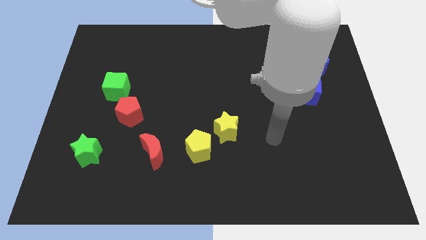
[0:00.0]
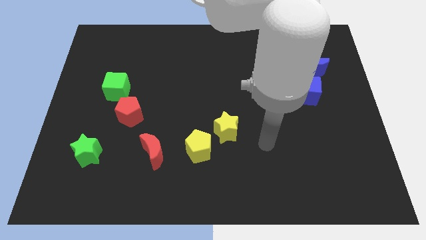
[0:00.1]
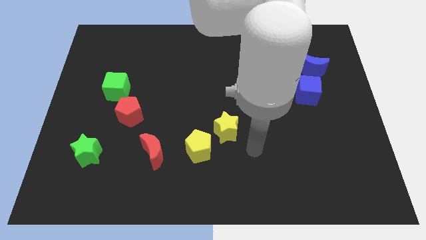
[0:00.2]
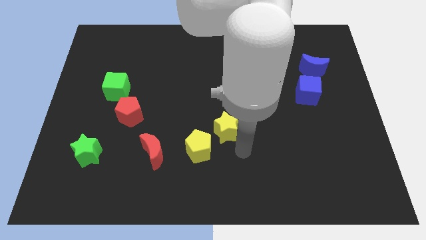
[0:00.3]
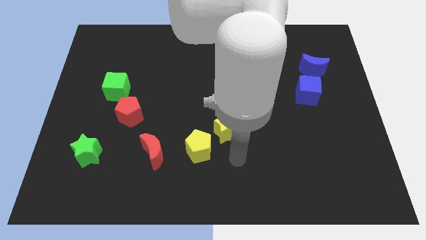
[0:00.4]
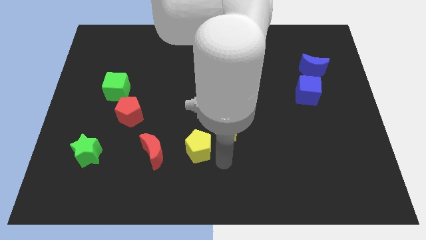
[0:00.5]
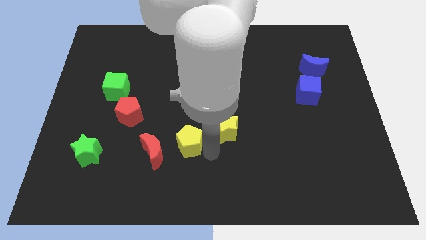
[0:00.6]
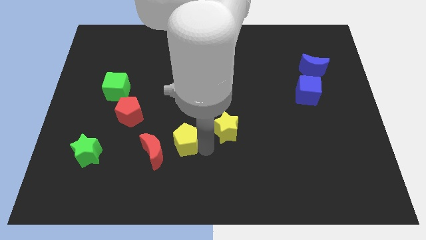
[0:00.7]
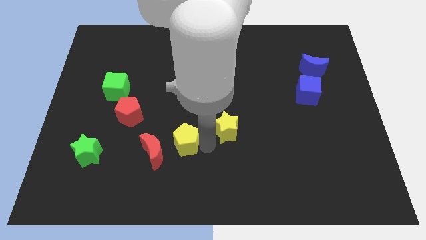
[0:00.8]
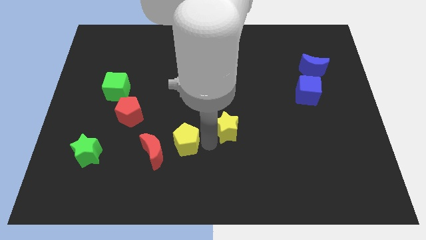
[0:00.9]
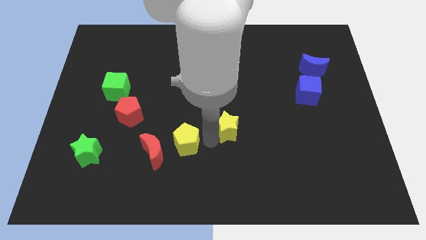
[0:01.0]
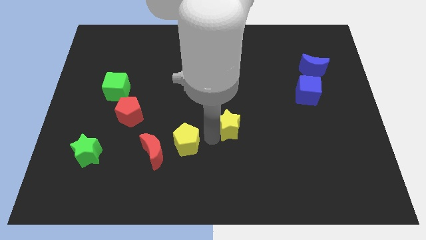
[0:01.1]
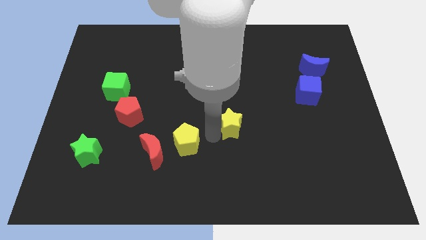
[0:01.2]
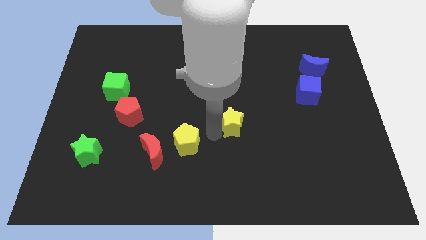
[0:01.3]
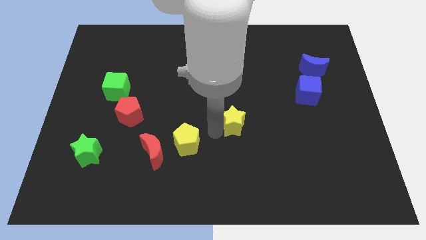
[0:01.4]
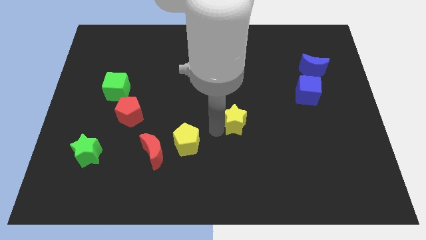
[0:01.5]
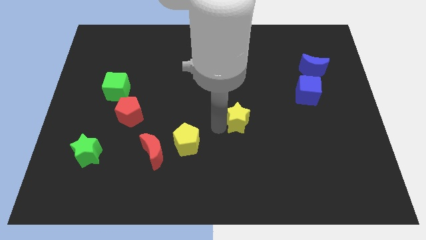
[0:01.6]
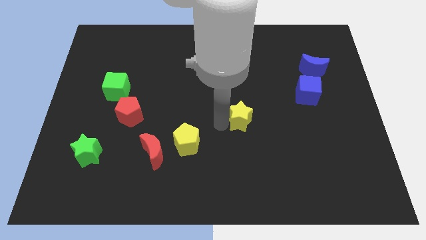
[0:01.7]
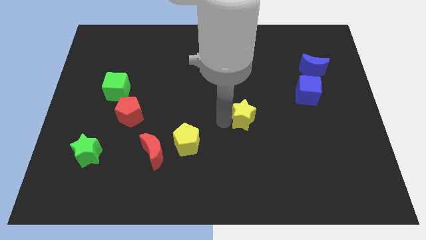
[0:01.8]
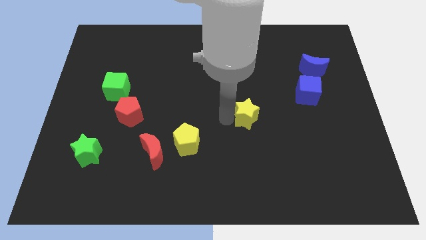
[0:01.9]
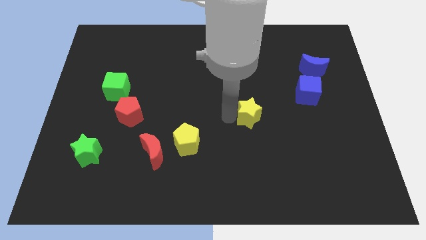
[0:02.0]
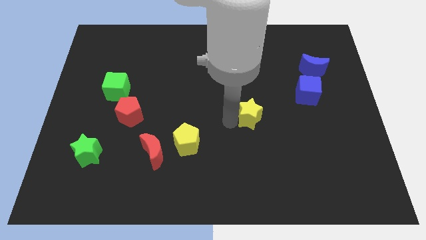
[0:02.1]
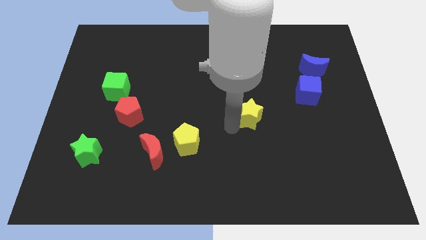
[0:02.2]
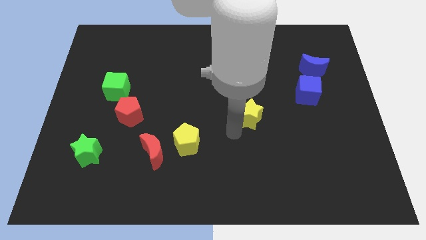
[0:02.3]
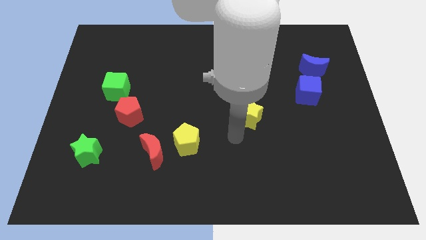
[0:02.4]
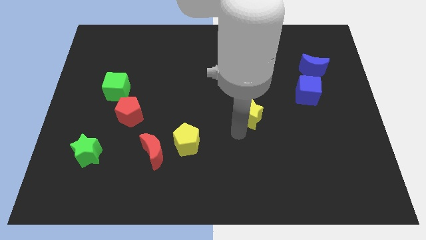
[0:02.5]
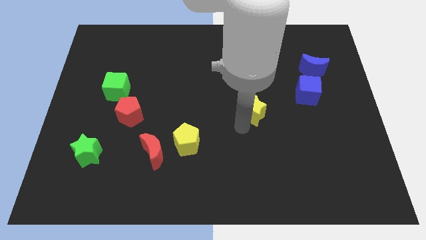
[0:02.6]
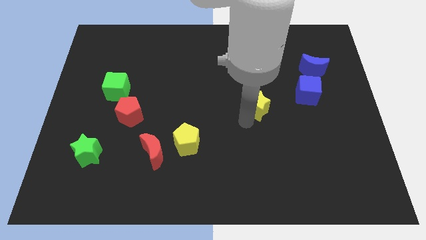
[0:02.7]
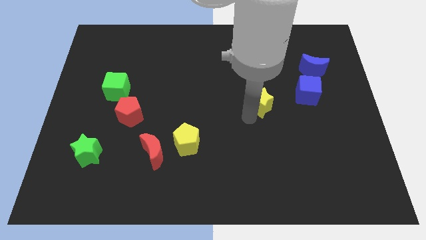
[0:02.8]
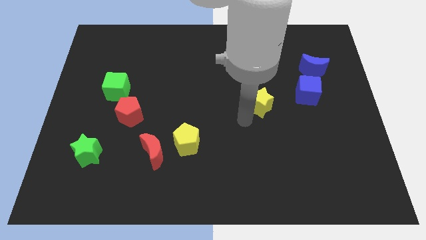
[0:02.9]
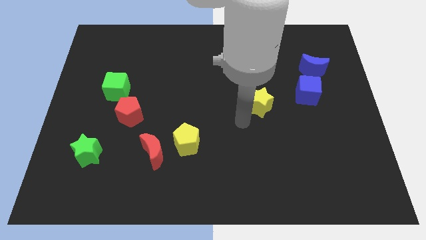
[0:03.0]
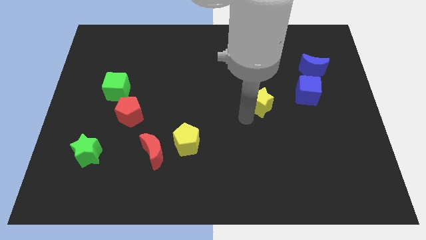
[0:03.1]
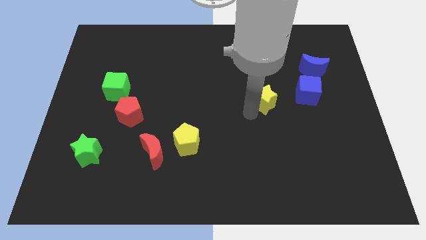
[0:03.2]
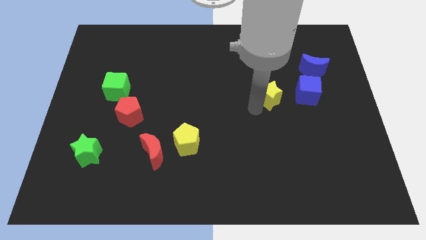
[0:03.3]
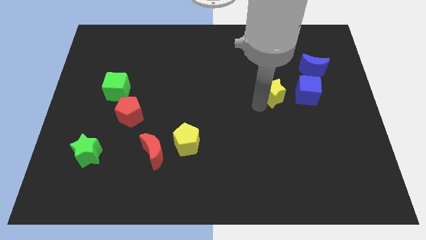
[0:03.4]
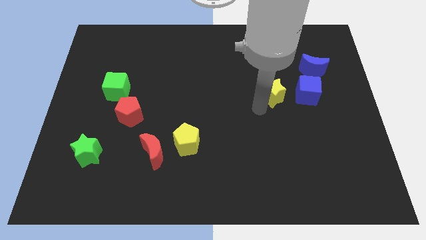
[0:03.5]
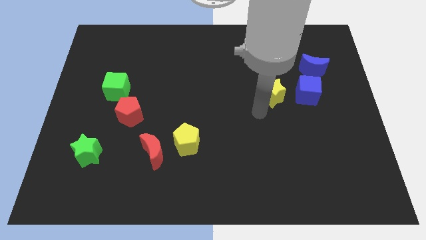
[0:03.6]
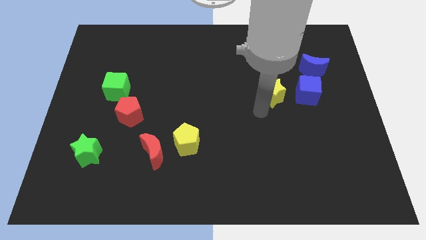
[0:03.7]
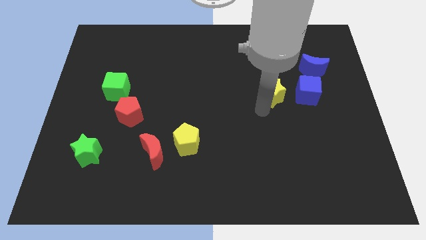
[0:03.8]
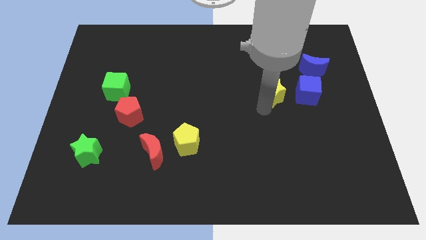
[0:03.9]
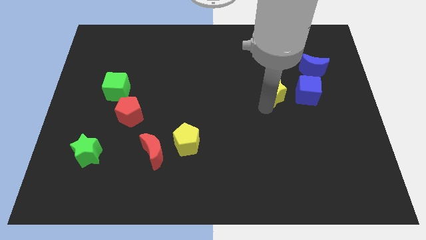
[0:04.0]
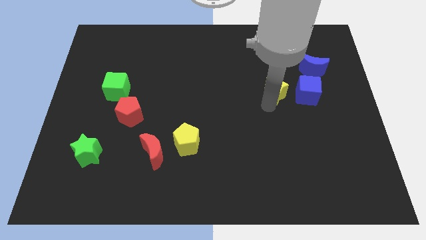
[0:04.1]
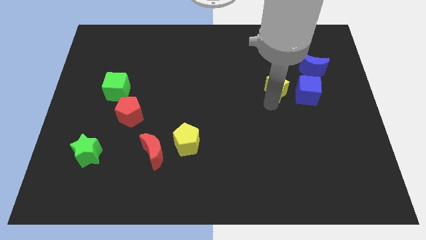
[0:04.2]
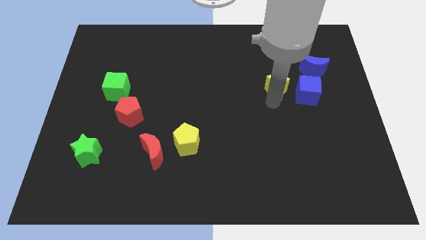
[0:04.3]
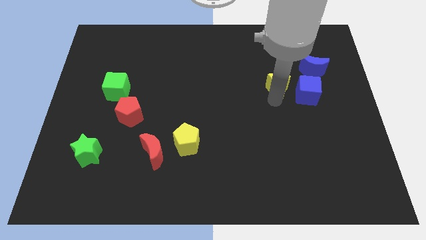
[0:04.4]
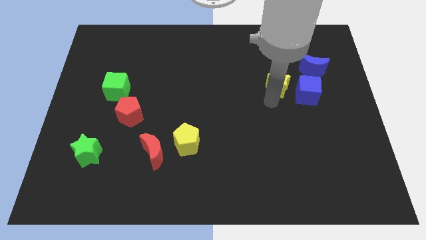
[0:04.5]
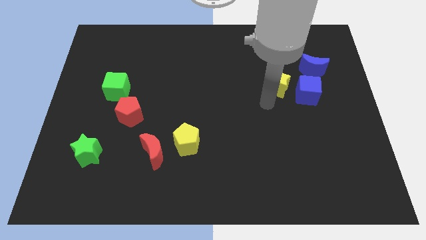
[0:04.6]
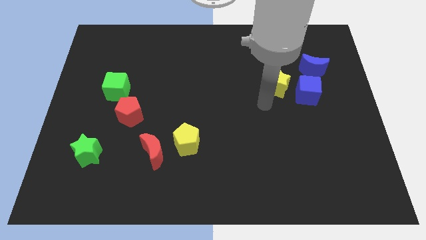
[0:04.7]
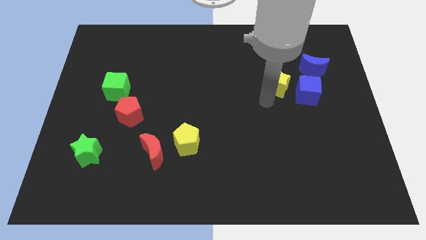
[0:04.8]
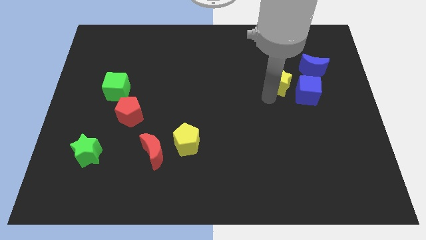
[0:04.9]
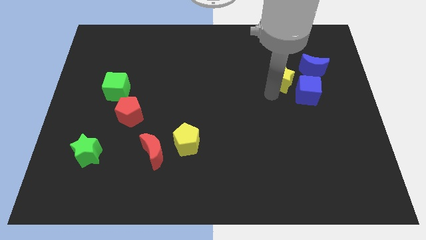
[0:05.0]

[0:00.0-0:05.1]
slide the yellow star diagonally upwards and to the right

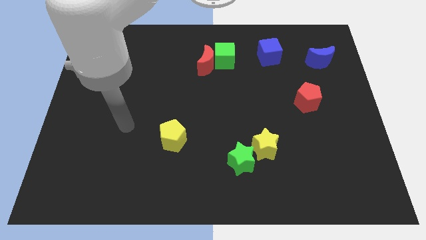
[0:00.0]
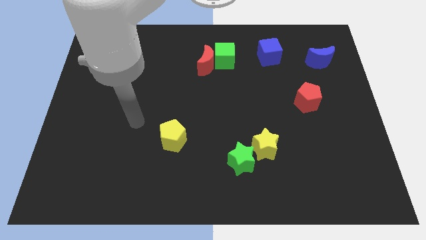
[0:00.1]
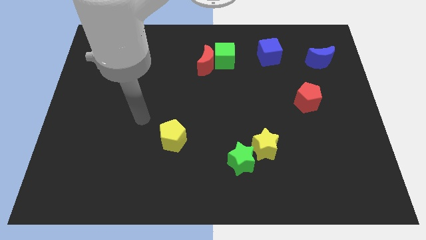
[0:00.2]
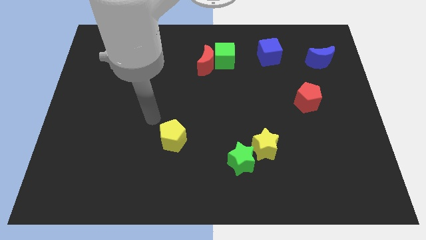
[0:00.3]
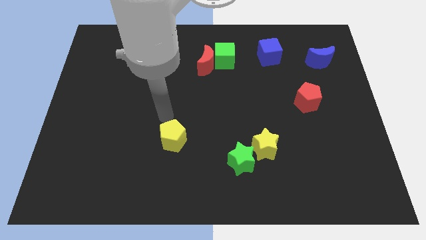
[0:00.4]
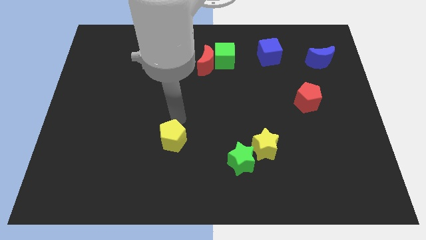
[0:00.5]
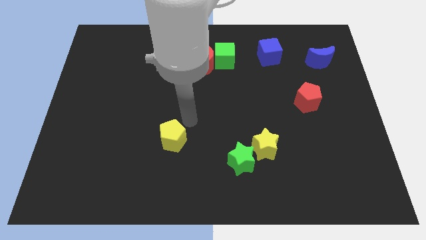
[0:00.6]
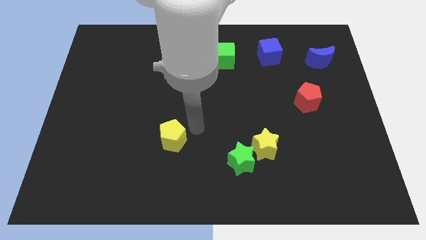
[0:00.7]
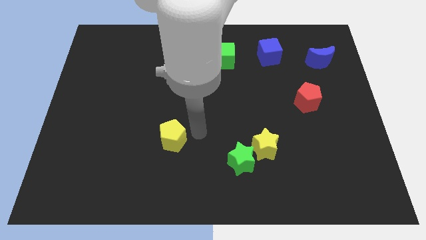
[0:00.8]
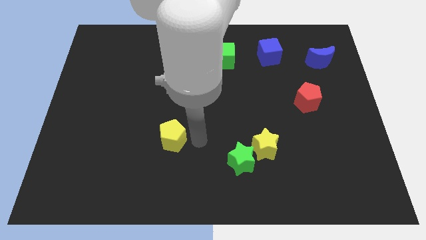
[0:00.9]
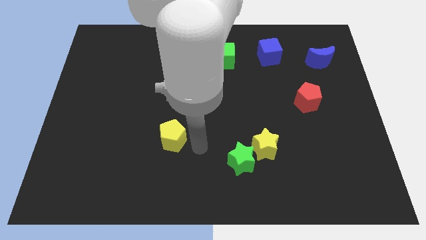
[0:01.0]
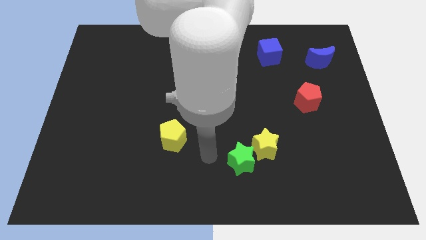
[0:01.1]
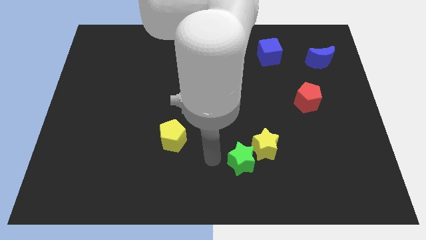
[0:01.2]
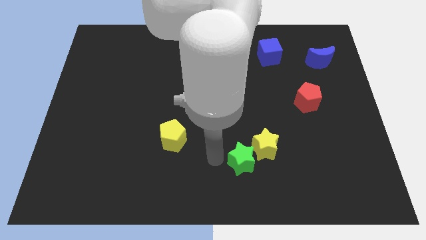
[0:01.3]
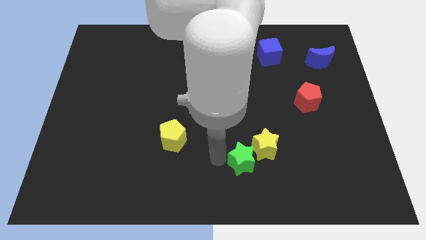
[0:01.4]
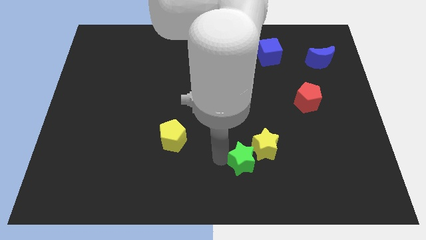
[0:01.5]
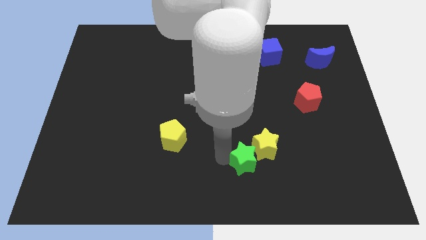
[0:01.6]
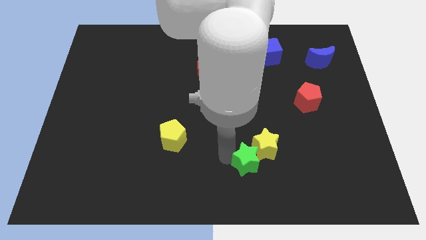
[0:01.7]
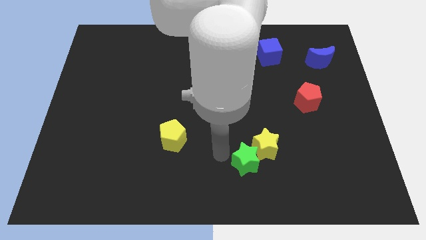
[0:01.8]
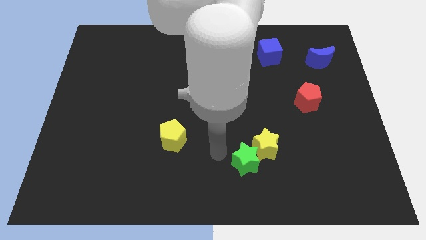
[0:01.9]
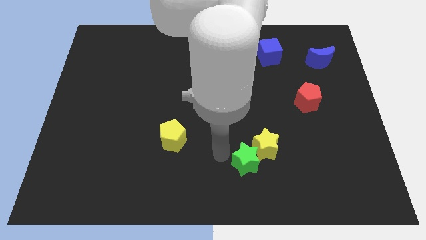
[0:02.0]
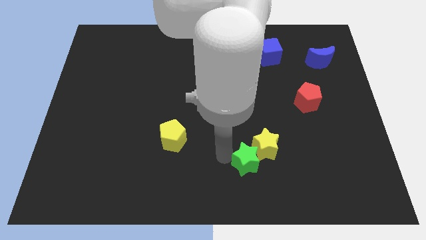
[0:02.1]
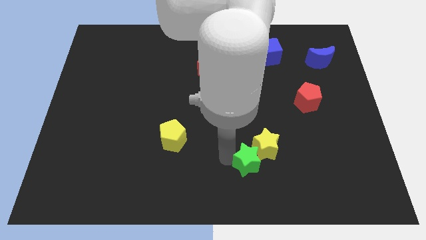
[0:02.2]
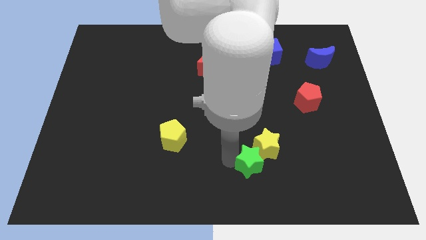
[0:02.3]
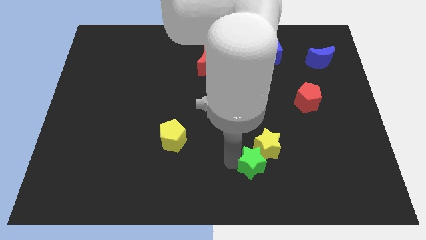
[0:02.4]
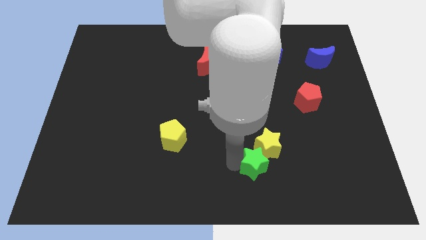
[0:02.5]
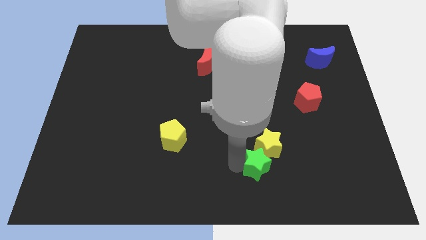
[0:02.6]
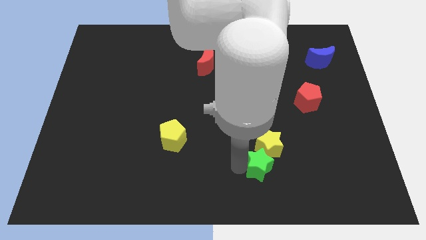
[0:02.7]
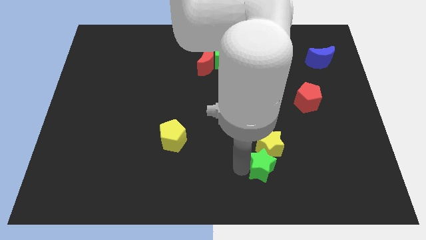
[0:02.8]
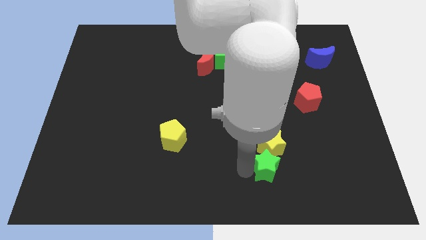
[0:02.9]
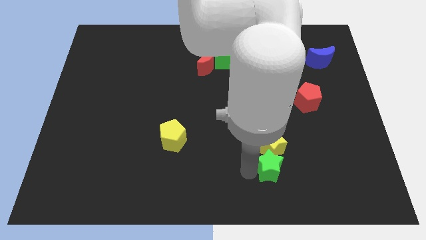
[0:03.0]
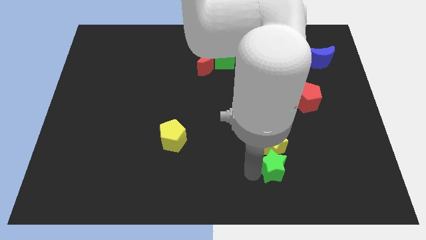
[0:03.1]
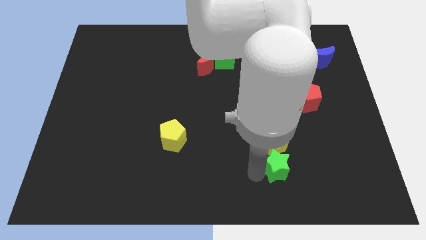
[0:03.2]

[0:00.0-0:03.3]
move the green star slightly right
